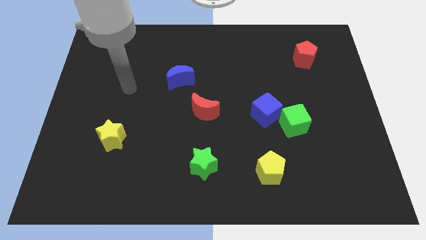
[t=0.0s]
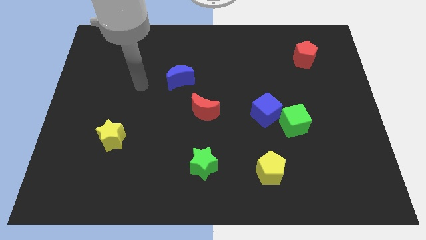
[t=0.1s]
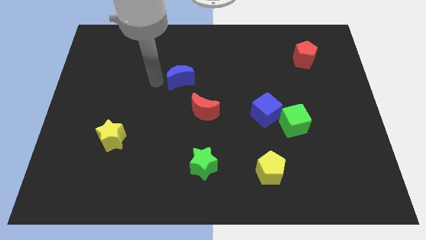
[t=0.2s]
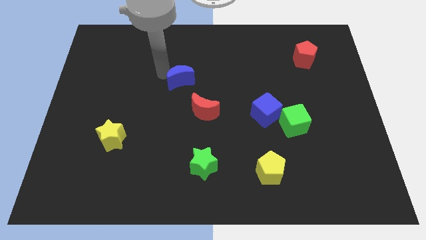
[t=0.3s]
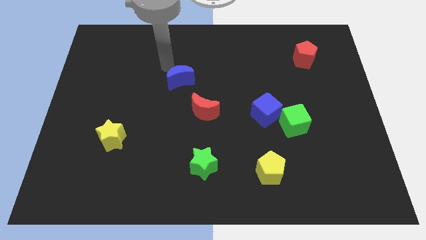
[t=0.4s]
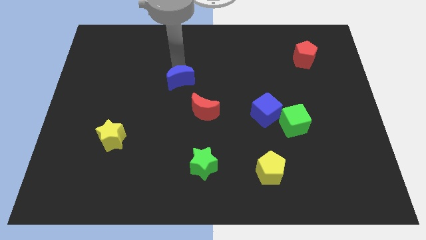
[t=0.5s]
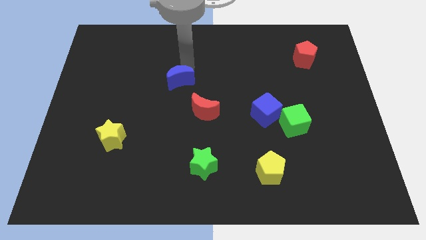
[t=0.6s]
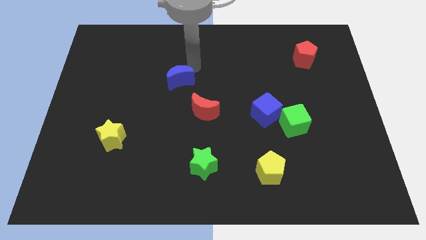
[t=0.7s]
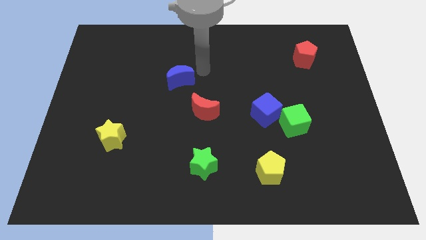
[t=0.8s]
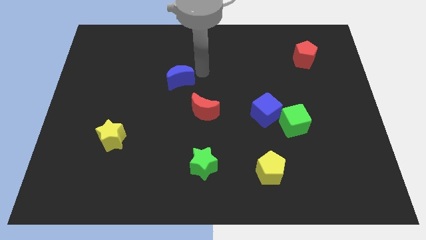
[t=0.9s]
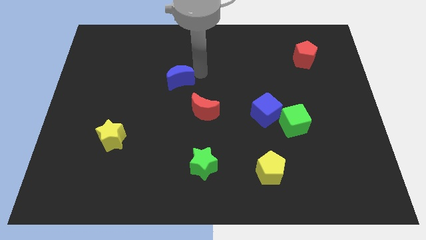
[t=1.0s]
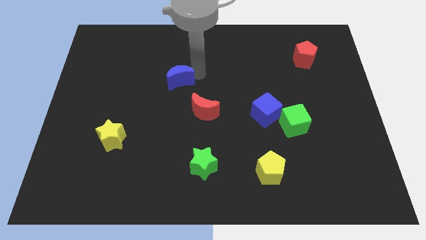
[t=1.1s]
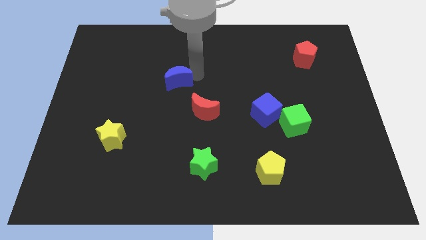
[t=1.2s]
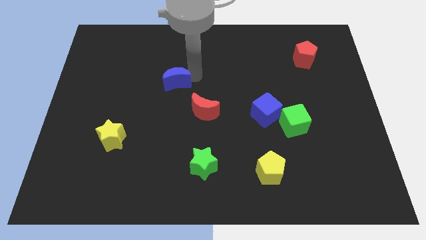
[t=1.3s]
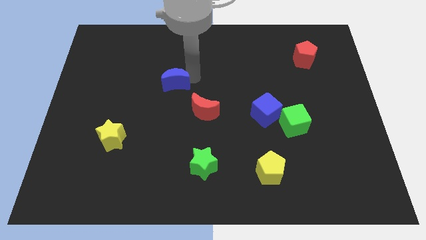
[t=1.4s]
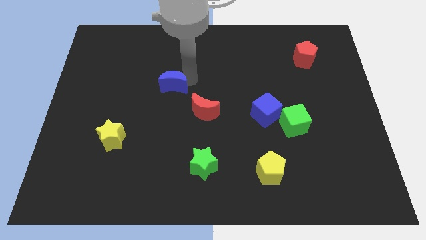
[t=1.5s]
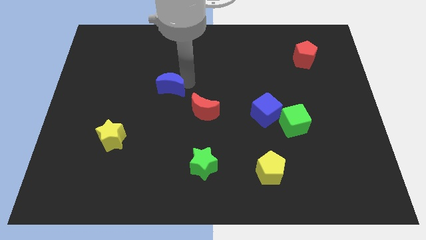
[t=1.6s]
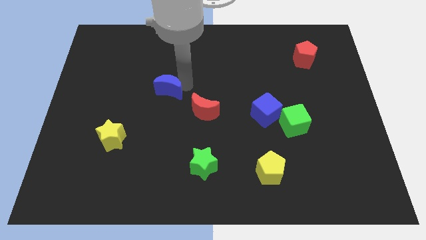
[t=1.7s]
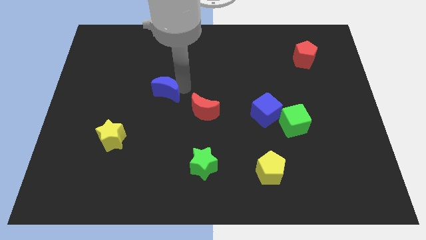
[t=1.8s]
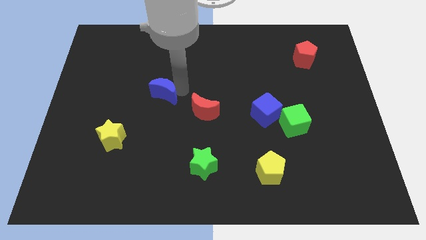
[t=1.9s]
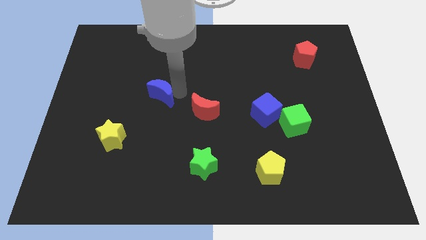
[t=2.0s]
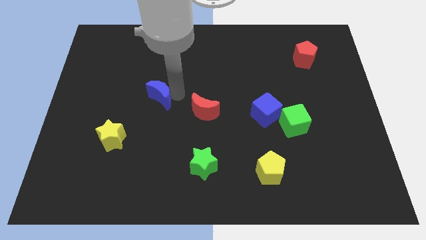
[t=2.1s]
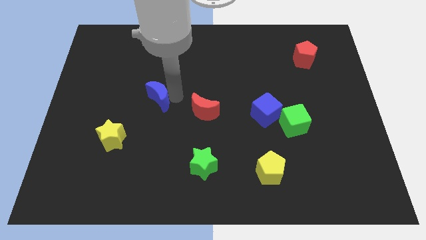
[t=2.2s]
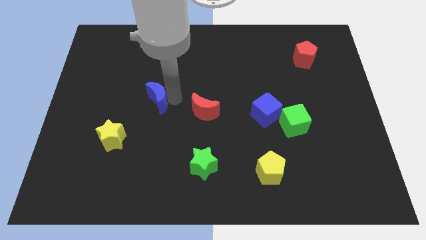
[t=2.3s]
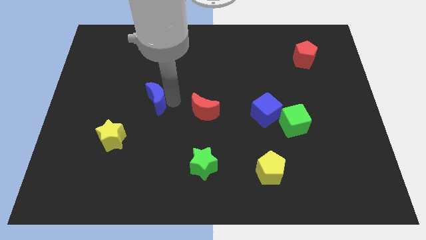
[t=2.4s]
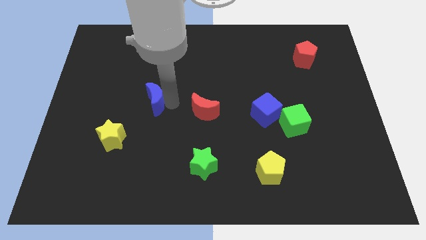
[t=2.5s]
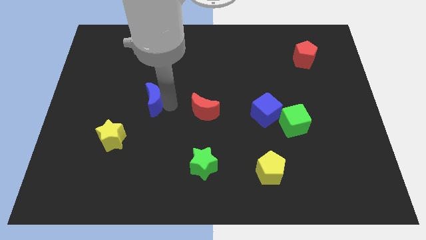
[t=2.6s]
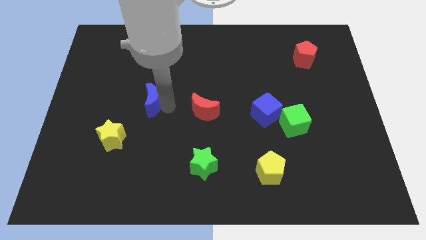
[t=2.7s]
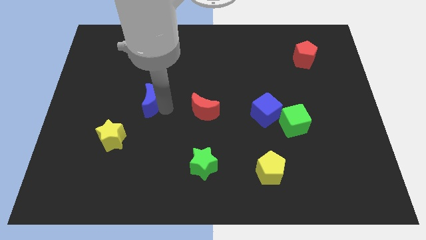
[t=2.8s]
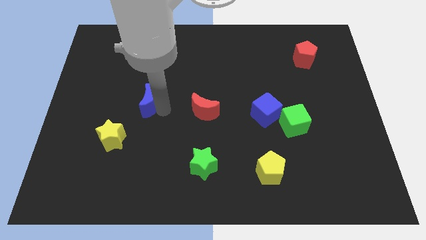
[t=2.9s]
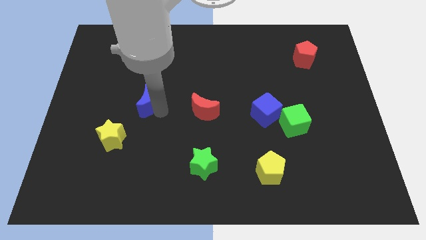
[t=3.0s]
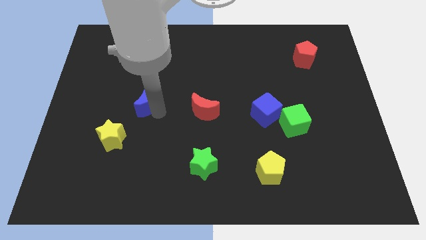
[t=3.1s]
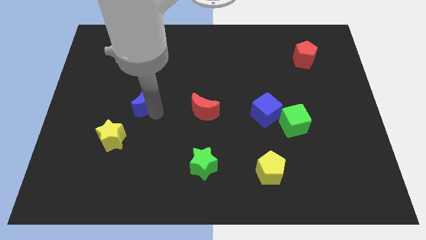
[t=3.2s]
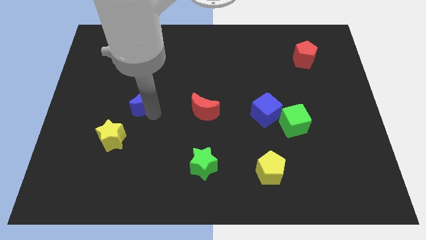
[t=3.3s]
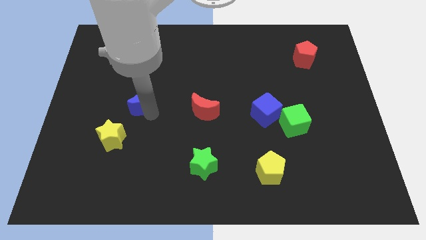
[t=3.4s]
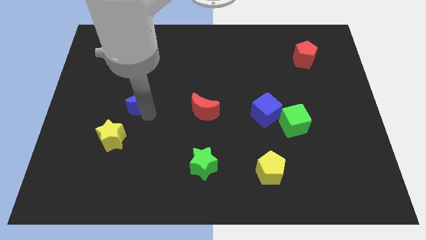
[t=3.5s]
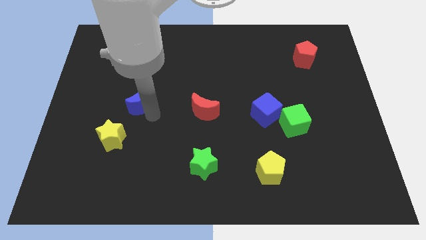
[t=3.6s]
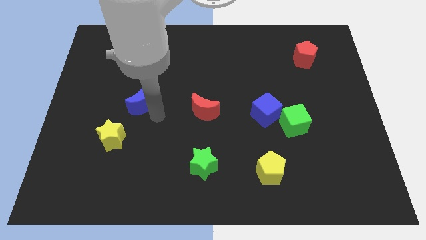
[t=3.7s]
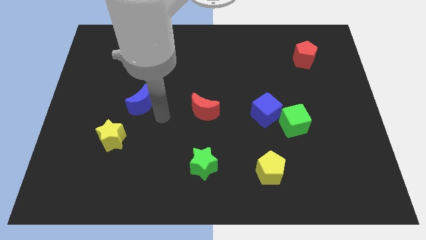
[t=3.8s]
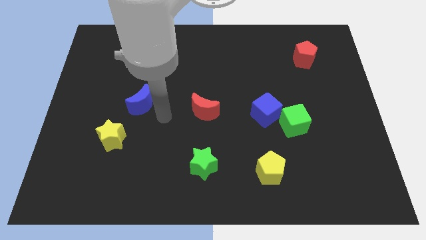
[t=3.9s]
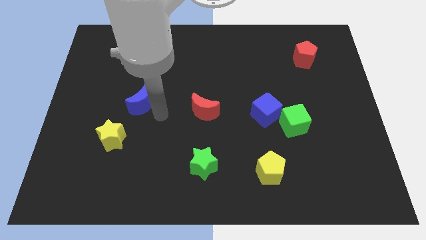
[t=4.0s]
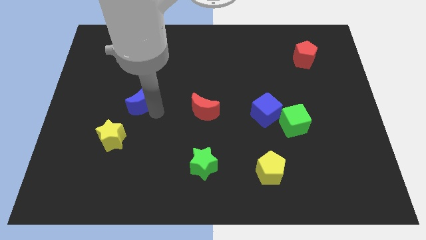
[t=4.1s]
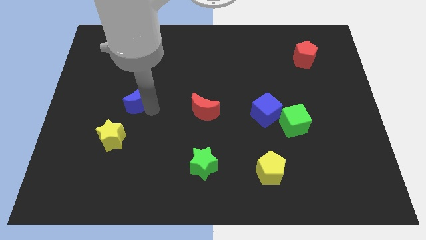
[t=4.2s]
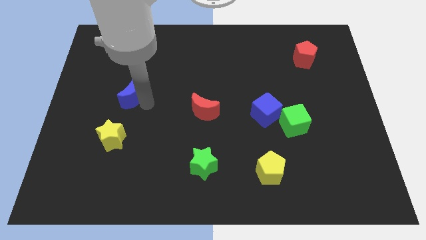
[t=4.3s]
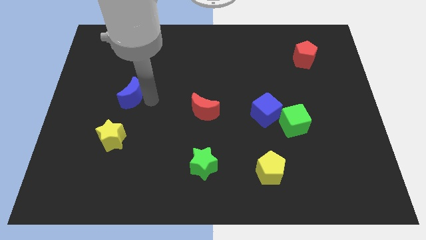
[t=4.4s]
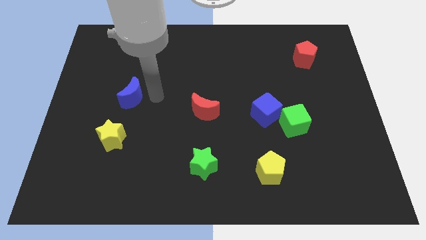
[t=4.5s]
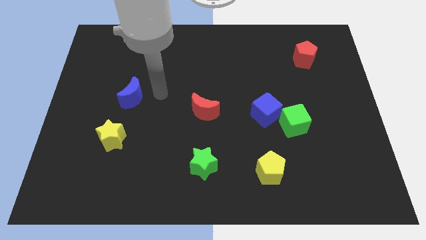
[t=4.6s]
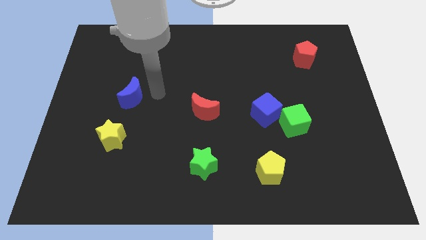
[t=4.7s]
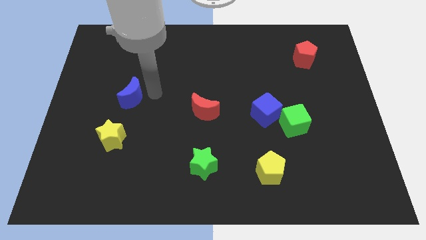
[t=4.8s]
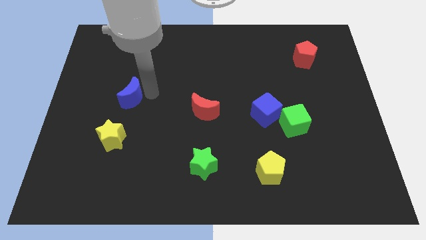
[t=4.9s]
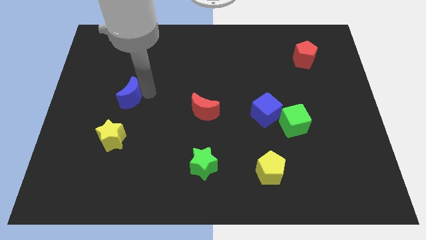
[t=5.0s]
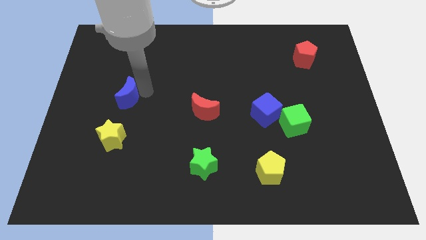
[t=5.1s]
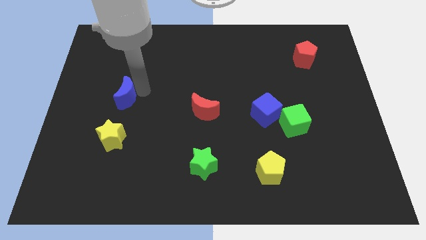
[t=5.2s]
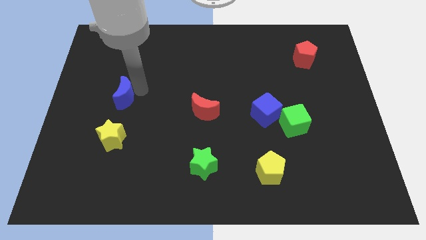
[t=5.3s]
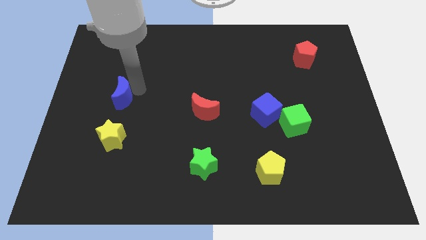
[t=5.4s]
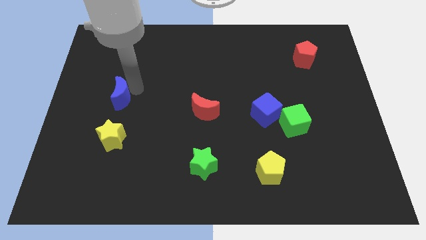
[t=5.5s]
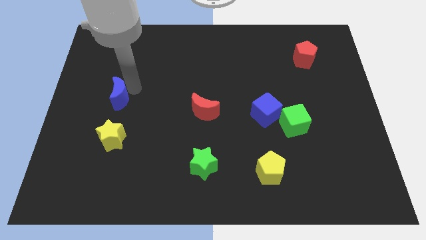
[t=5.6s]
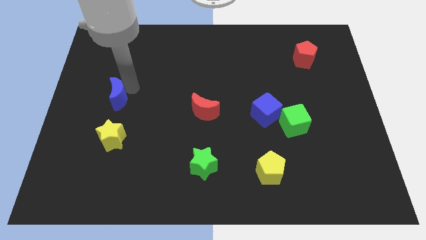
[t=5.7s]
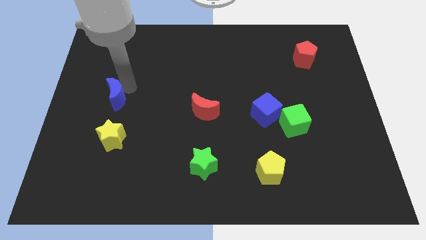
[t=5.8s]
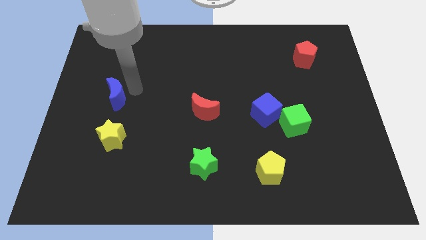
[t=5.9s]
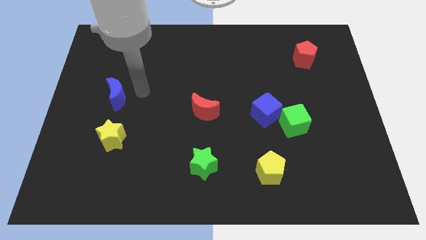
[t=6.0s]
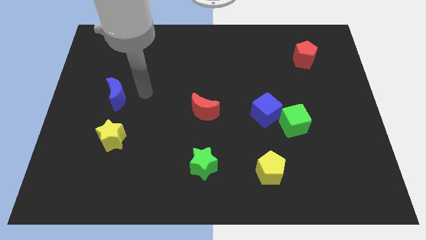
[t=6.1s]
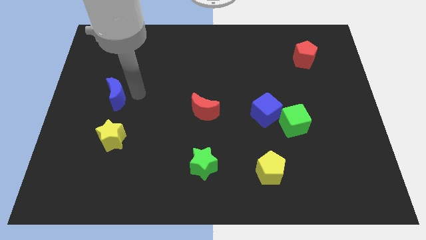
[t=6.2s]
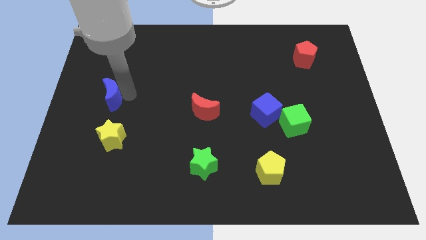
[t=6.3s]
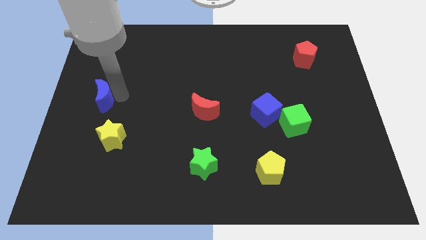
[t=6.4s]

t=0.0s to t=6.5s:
push the blue moon to the left side of the board

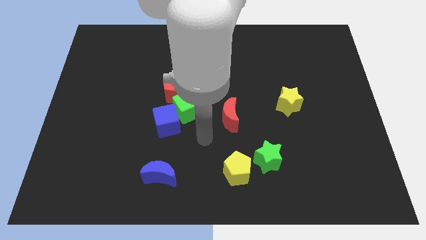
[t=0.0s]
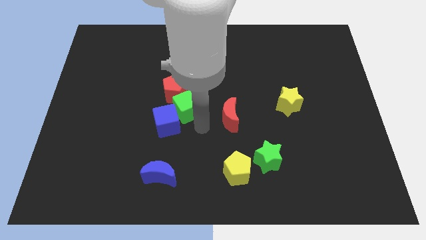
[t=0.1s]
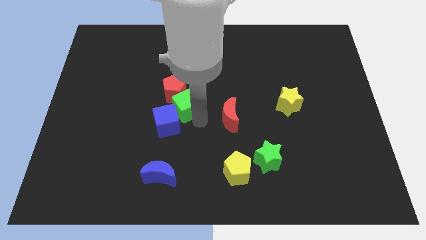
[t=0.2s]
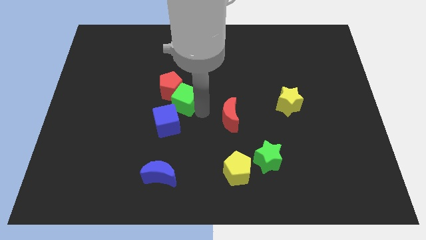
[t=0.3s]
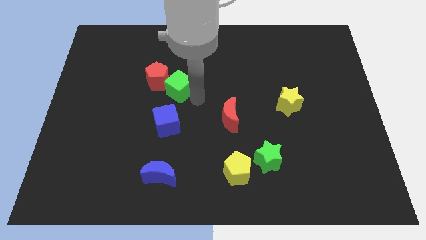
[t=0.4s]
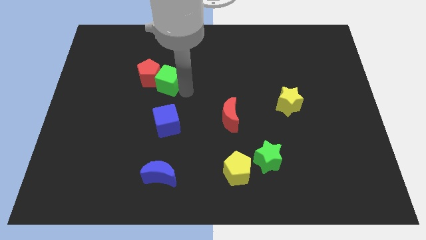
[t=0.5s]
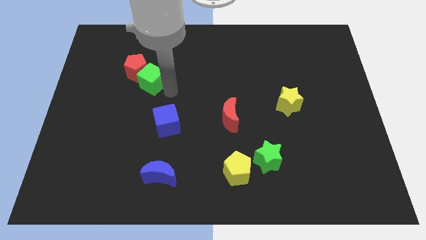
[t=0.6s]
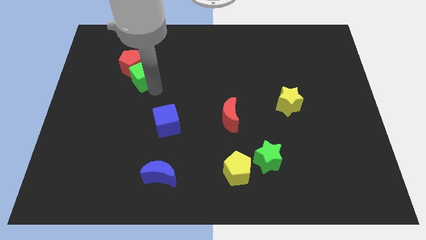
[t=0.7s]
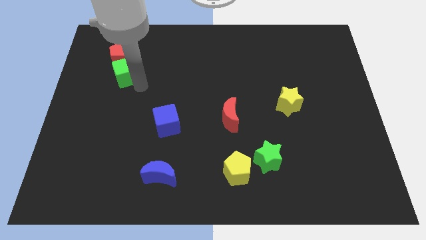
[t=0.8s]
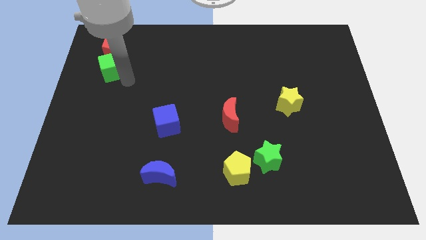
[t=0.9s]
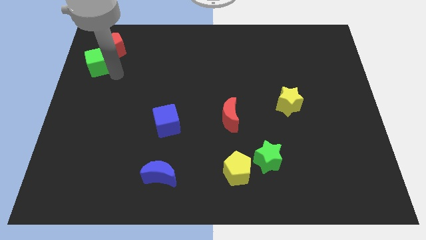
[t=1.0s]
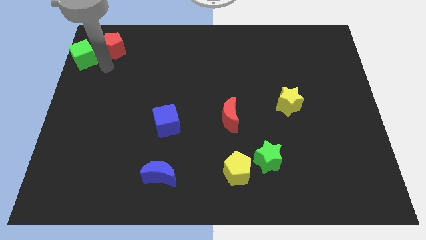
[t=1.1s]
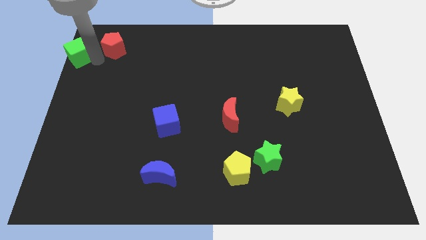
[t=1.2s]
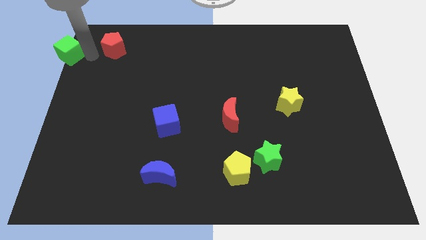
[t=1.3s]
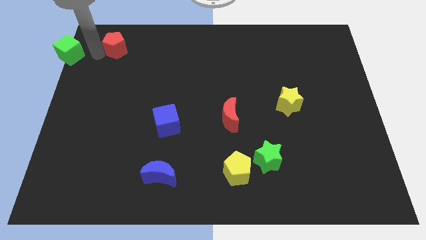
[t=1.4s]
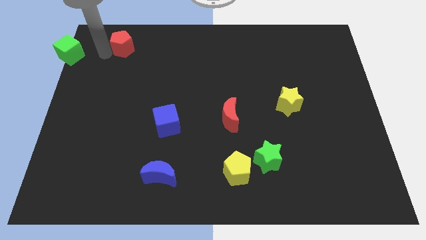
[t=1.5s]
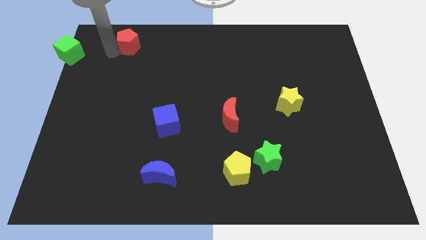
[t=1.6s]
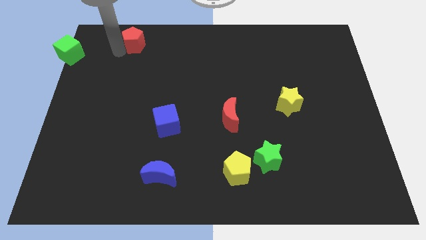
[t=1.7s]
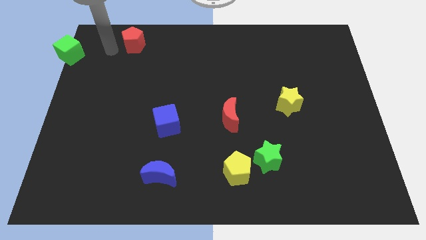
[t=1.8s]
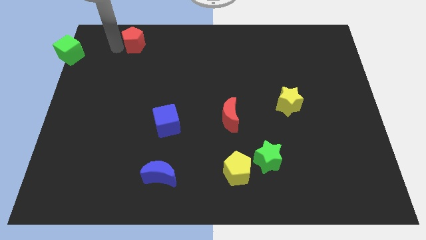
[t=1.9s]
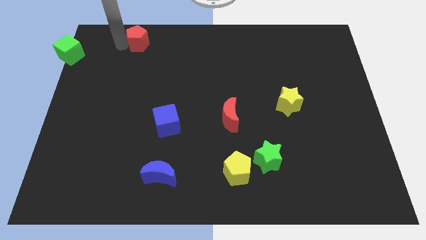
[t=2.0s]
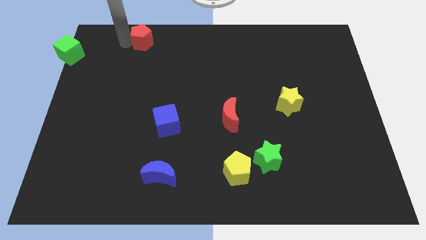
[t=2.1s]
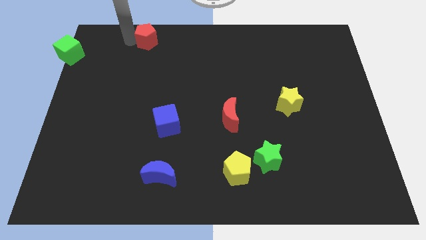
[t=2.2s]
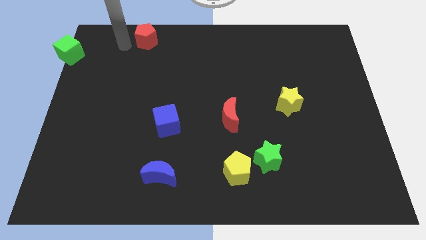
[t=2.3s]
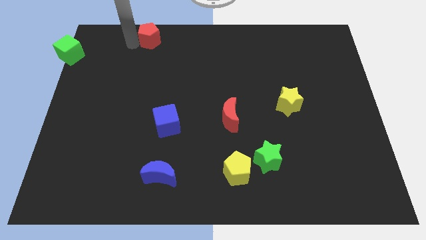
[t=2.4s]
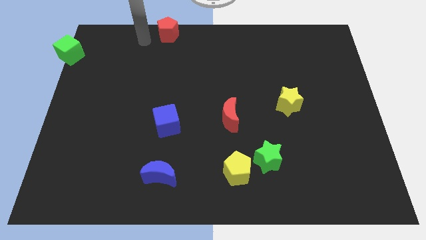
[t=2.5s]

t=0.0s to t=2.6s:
slide the red pentagon to the towards your base
